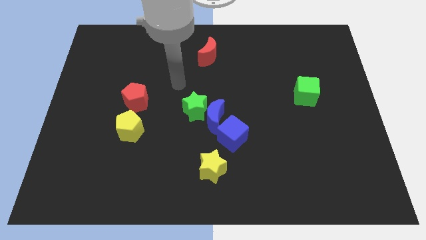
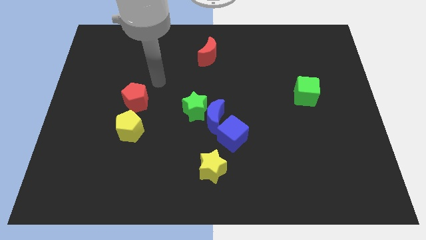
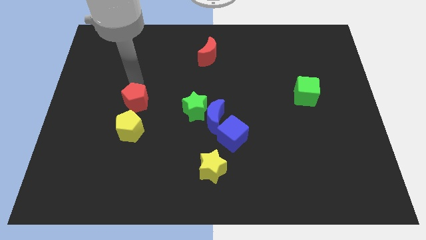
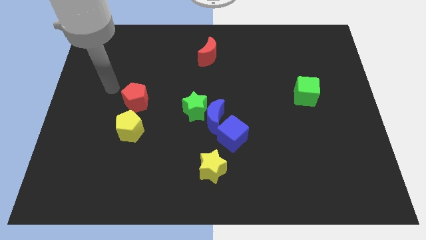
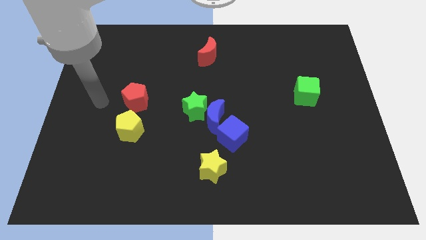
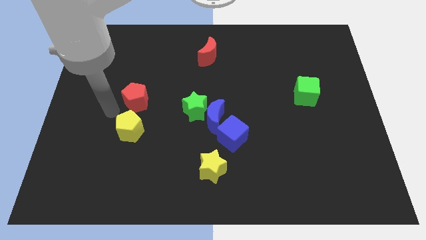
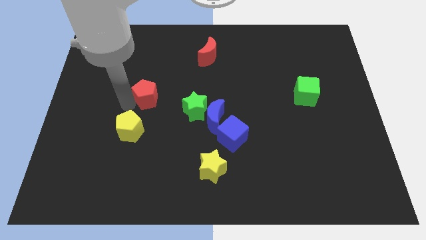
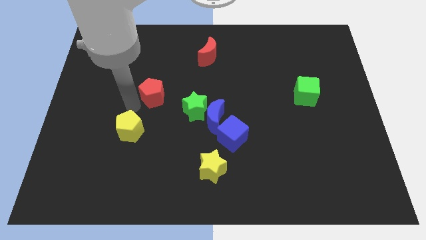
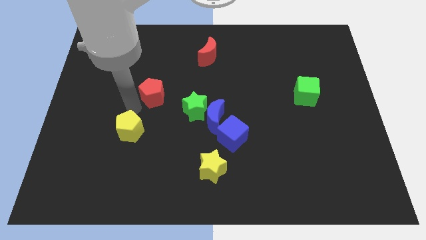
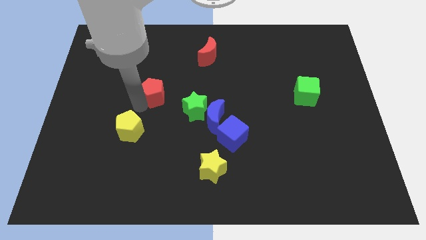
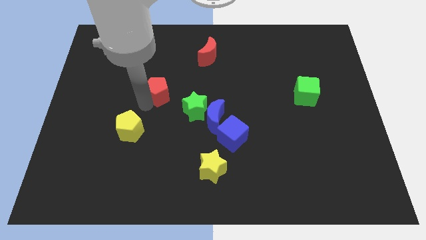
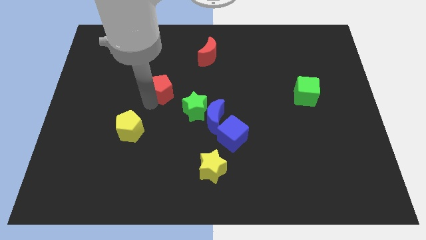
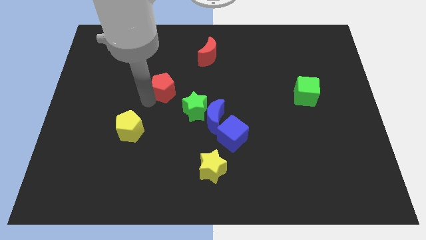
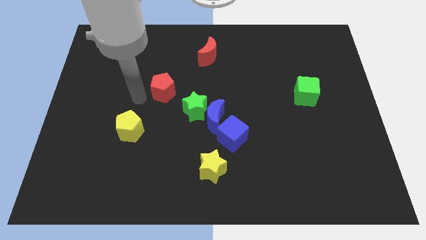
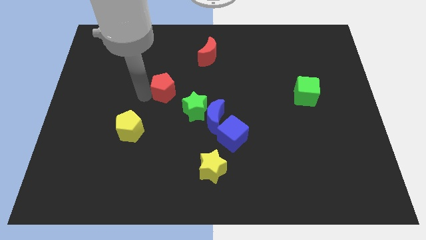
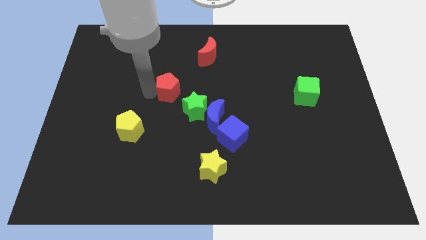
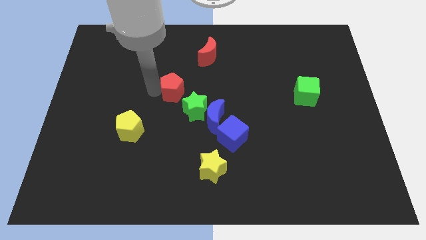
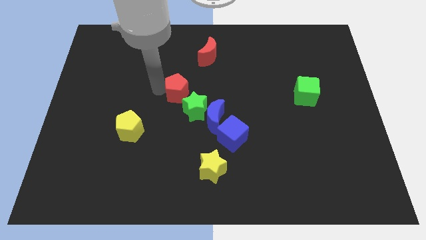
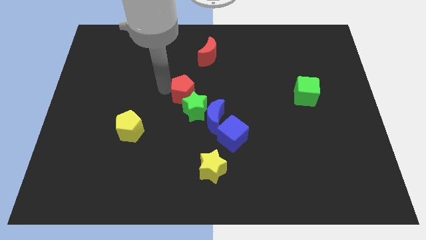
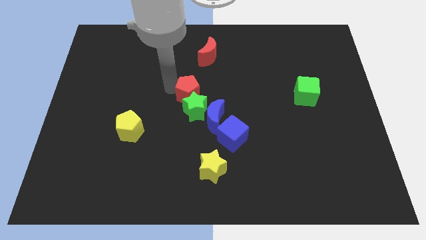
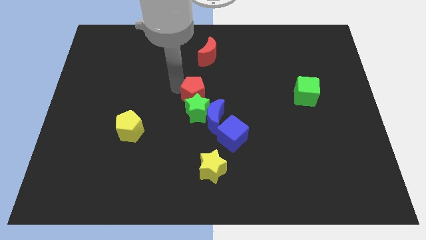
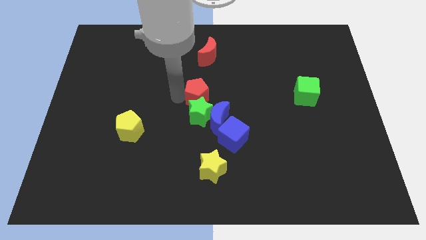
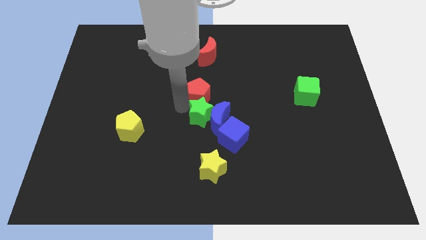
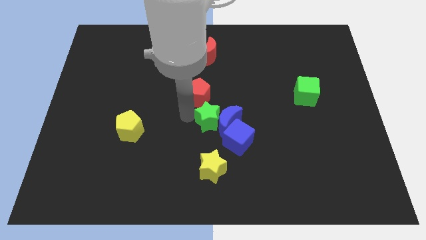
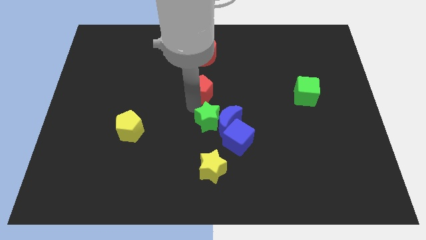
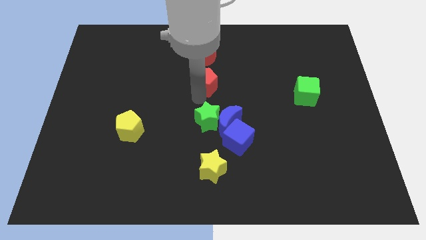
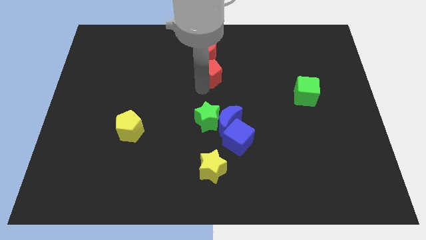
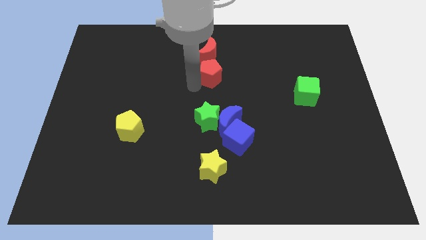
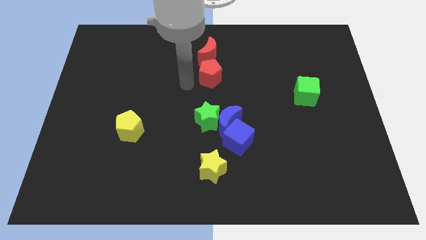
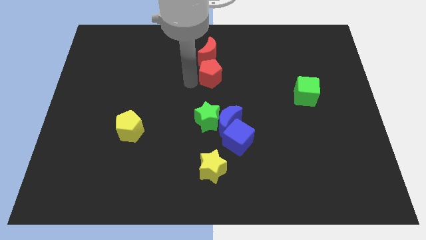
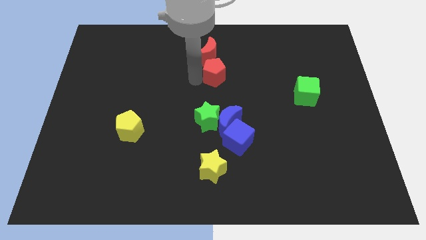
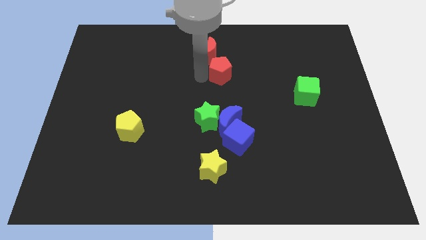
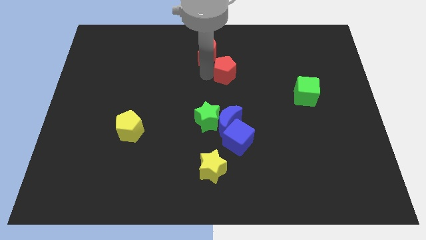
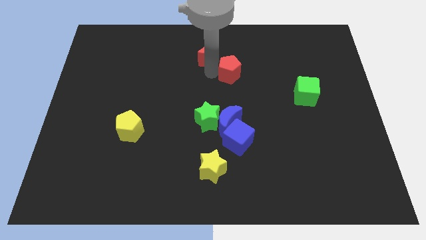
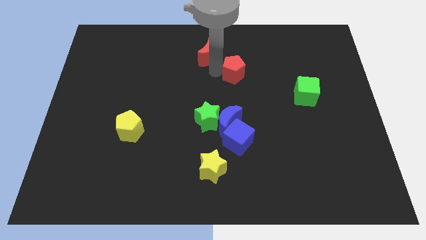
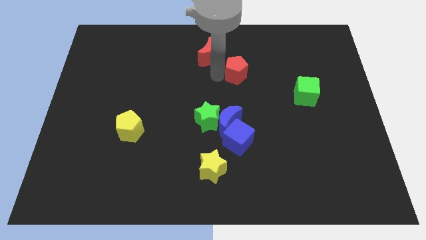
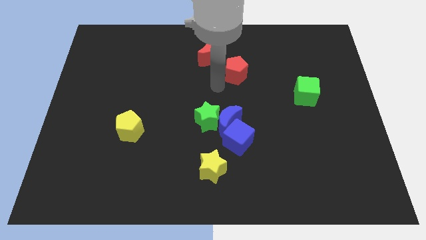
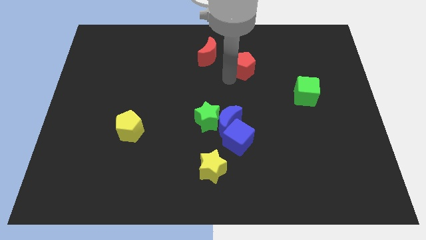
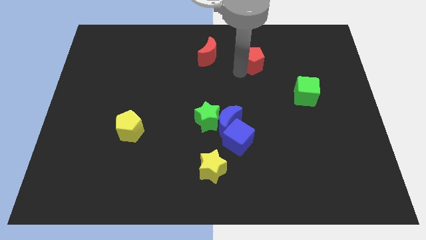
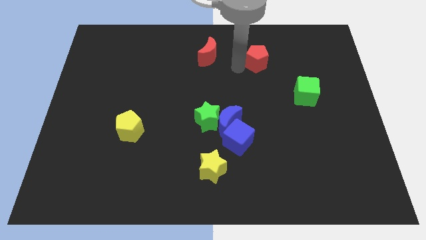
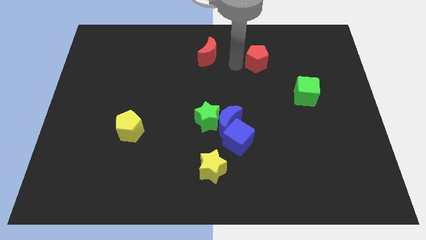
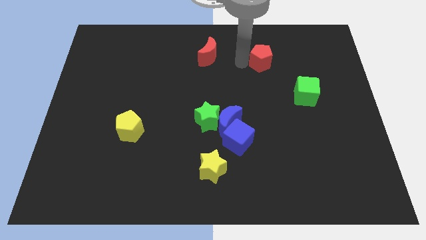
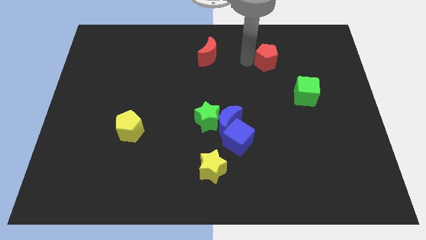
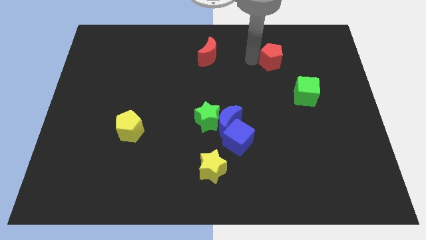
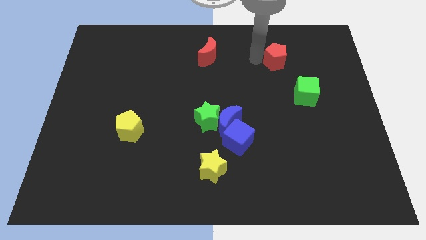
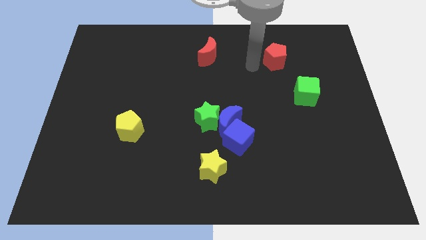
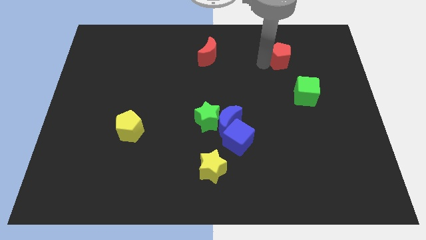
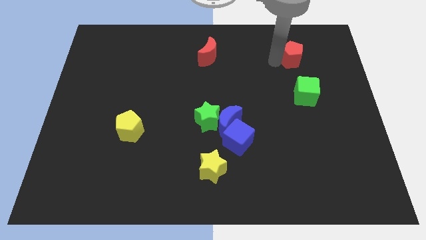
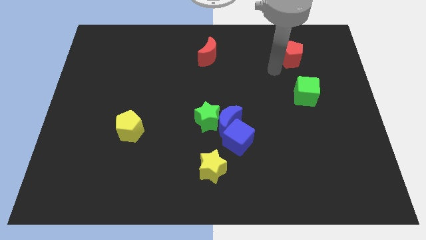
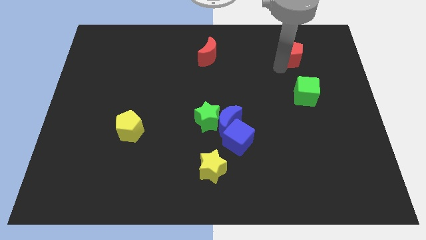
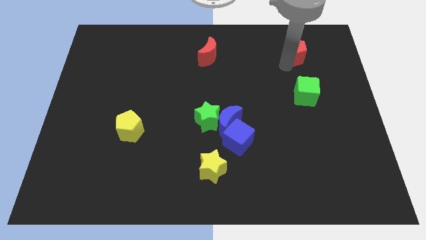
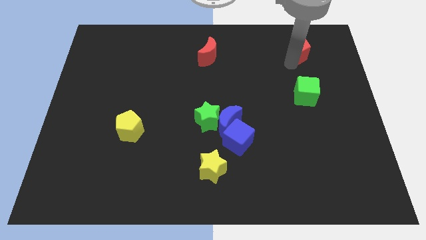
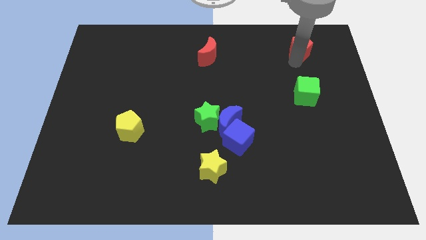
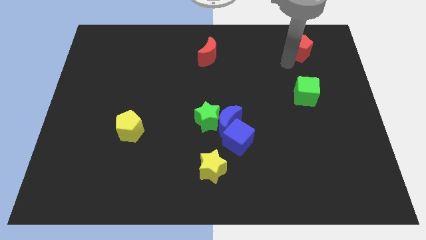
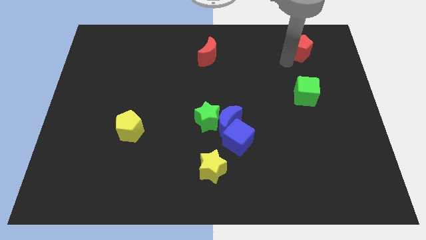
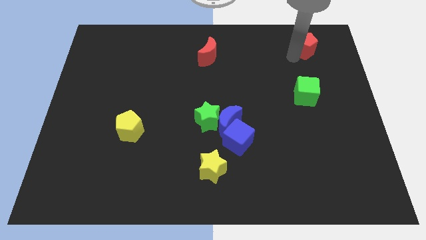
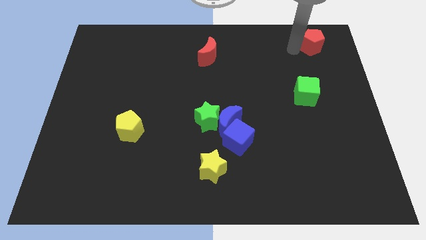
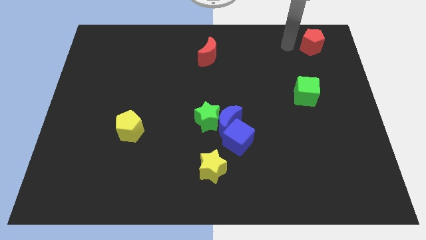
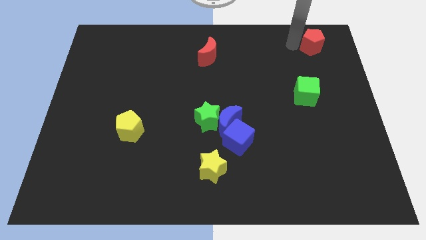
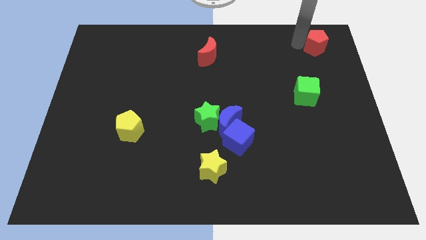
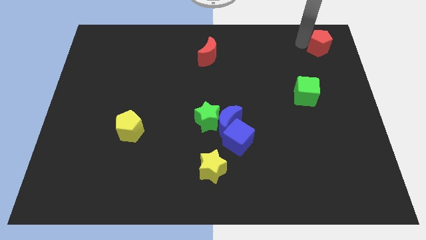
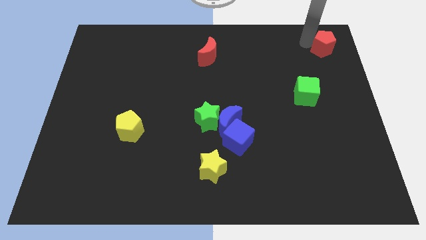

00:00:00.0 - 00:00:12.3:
put the red pentagon to the top right of the board

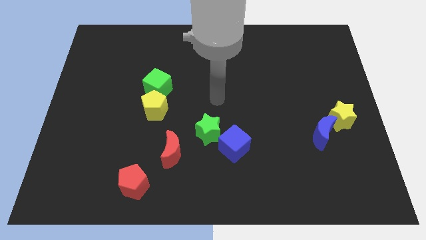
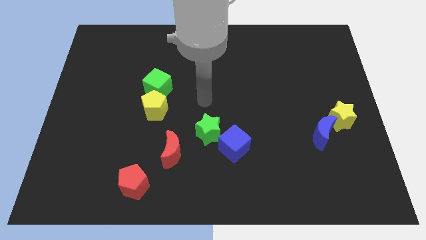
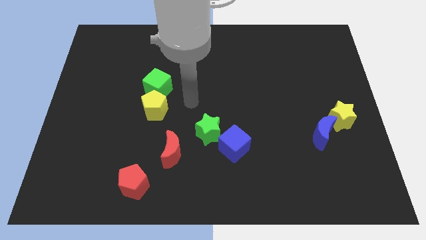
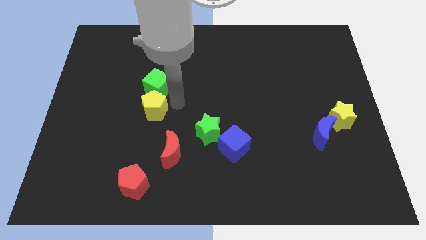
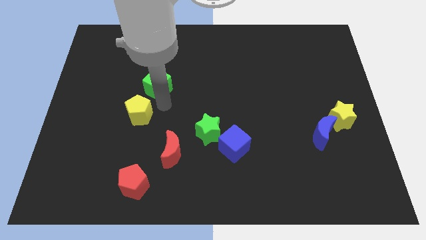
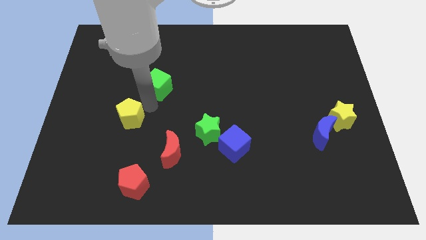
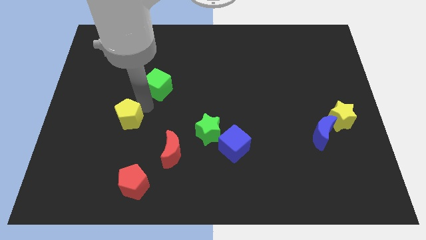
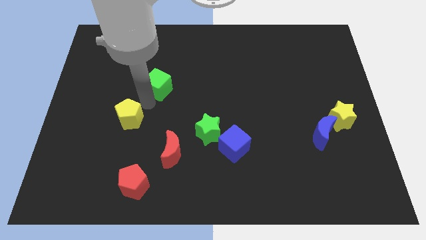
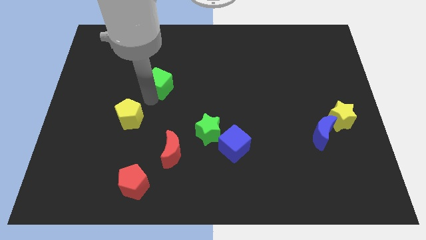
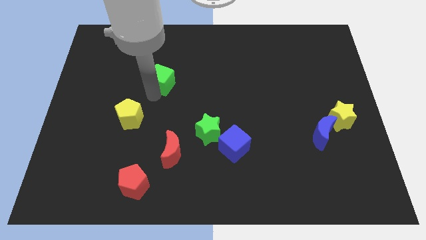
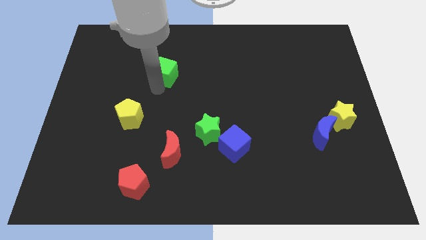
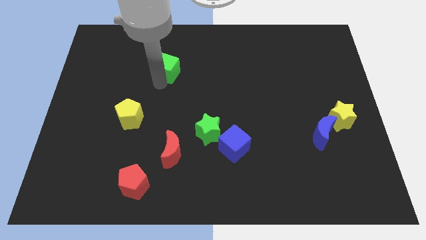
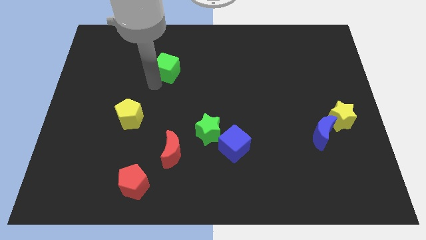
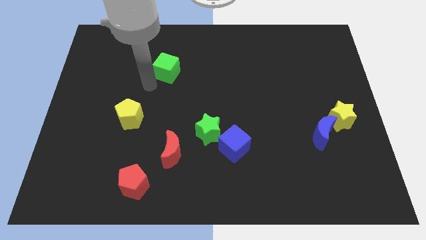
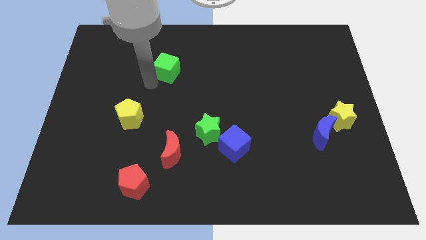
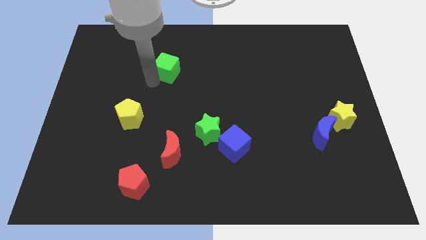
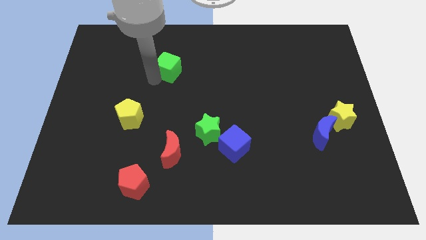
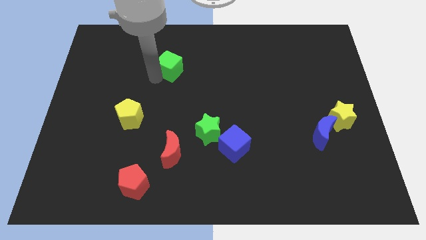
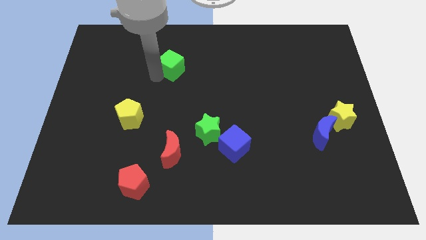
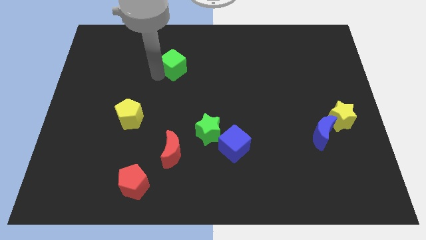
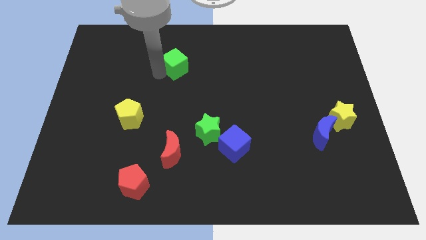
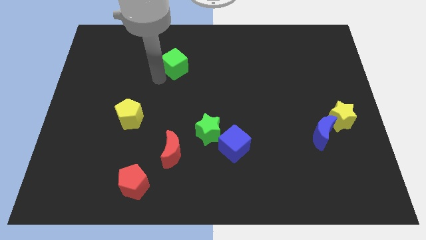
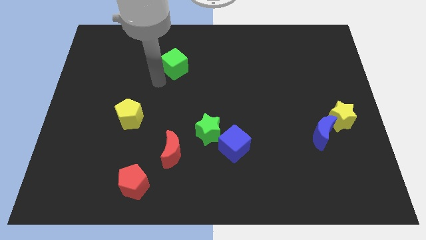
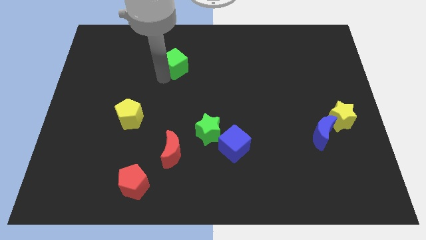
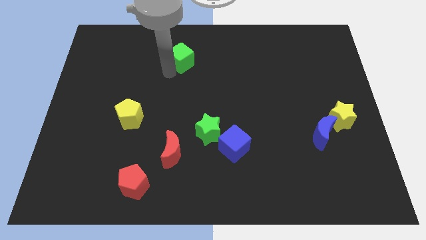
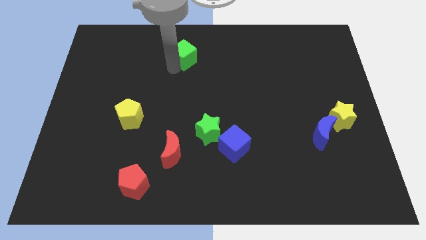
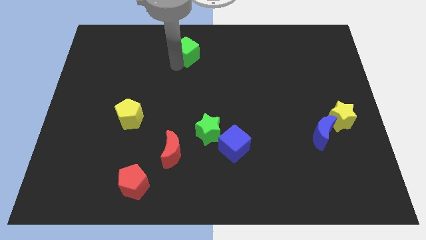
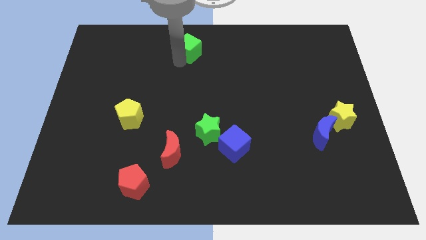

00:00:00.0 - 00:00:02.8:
put the green cube to the top
